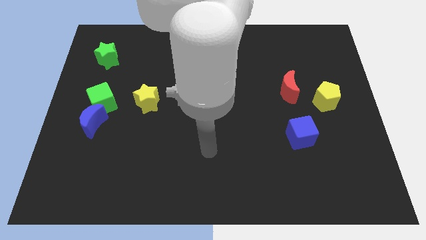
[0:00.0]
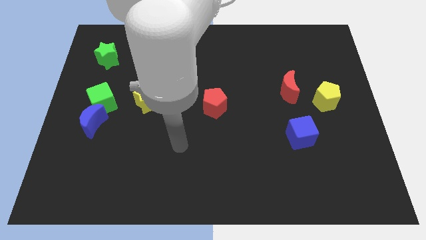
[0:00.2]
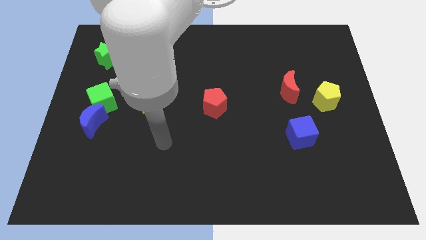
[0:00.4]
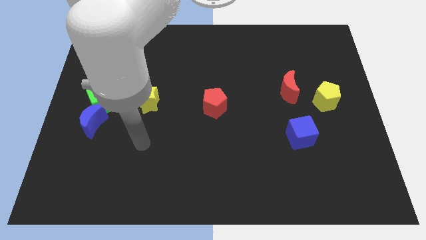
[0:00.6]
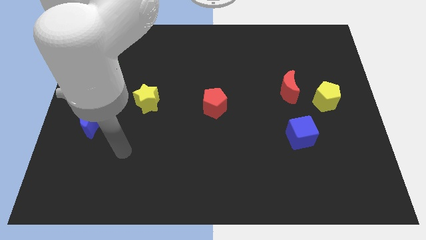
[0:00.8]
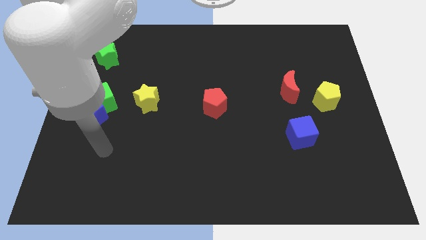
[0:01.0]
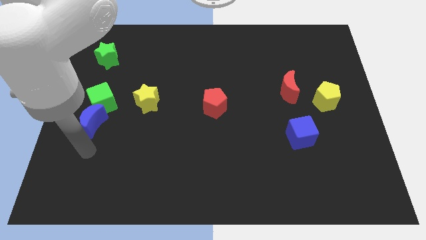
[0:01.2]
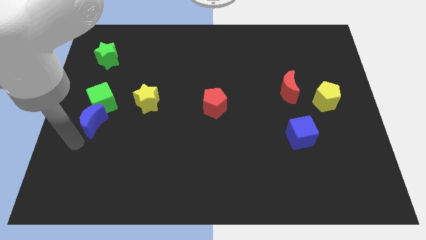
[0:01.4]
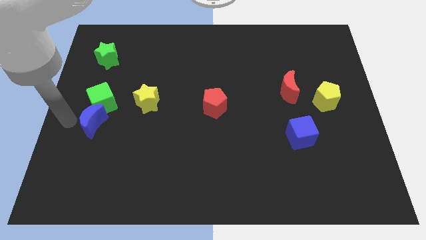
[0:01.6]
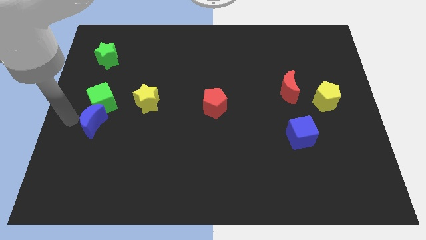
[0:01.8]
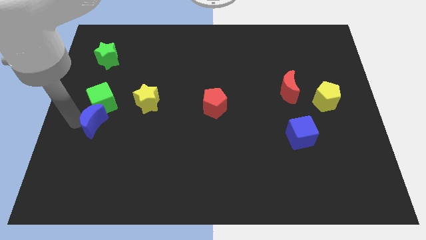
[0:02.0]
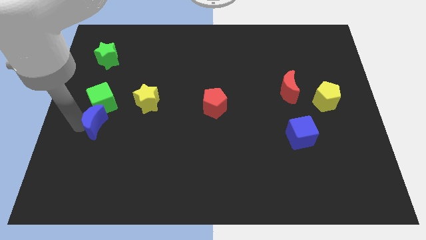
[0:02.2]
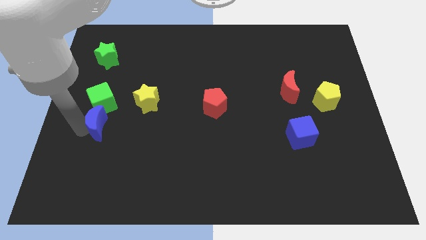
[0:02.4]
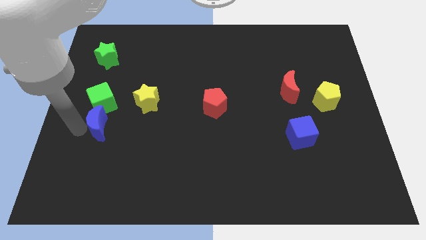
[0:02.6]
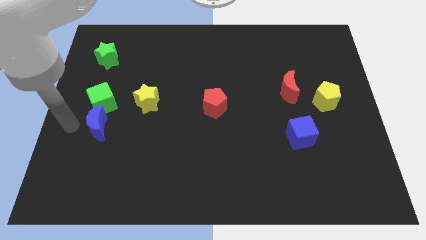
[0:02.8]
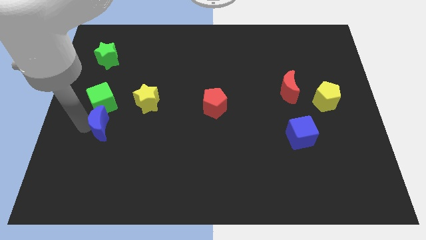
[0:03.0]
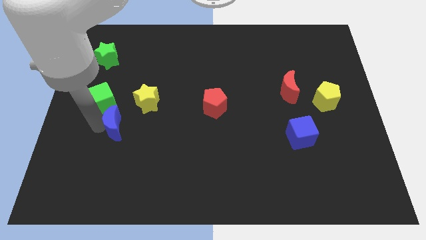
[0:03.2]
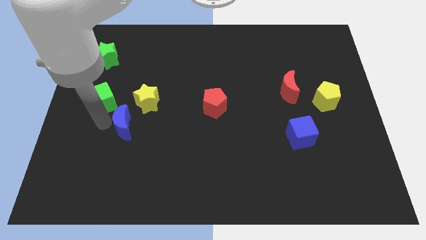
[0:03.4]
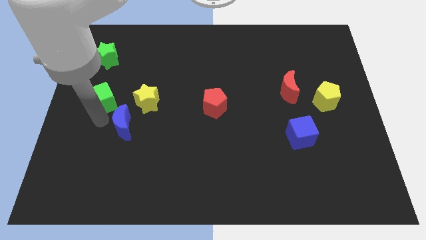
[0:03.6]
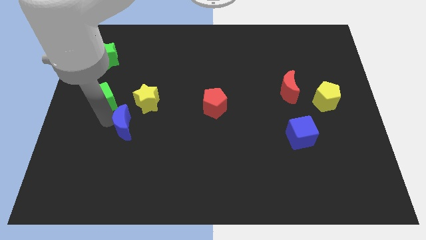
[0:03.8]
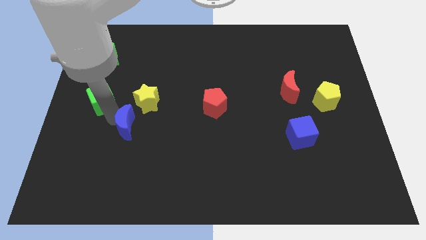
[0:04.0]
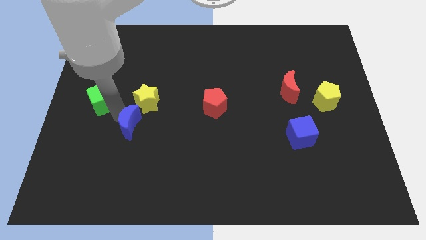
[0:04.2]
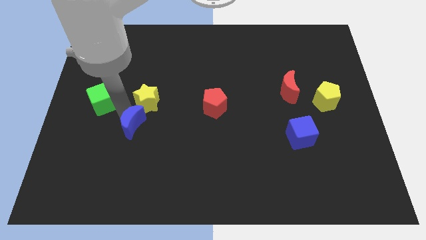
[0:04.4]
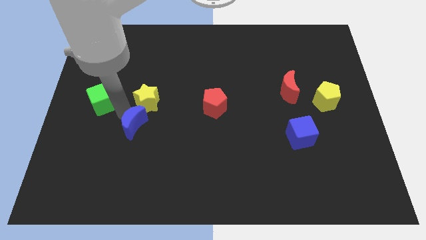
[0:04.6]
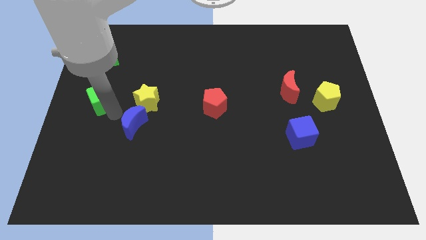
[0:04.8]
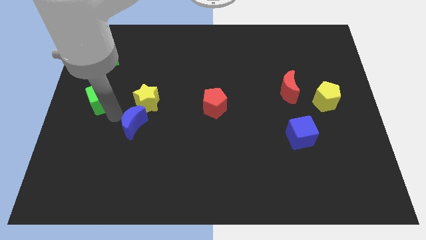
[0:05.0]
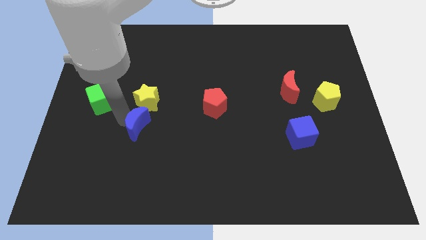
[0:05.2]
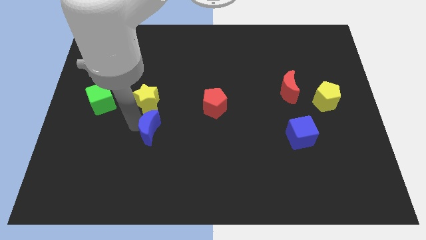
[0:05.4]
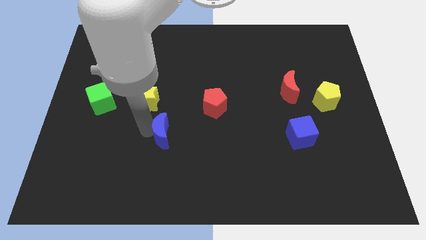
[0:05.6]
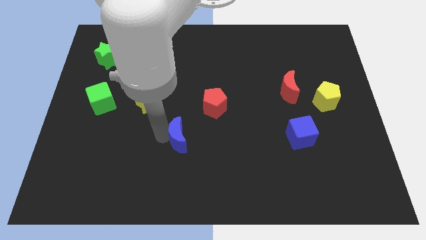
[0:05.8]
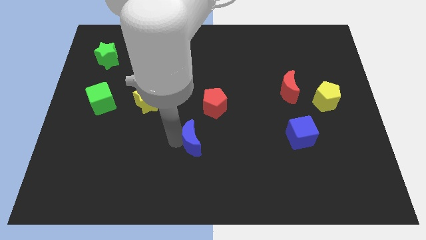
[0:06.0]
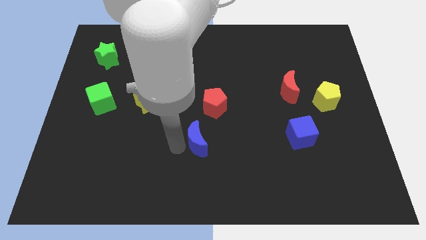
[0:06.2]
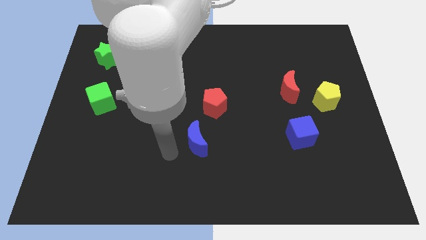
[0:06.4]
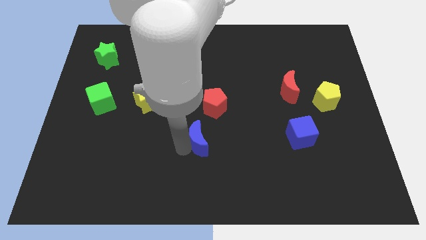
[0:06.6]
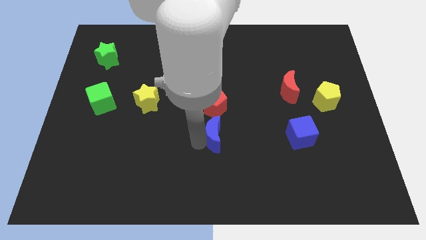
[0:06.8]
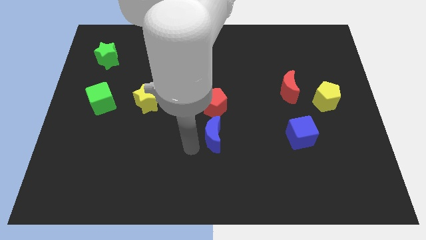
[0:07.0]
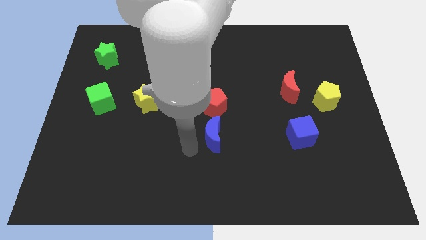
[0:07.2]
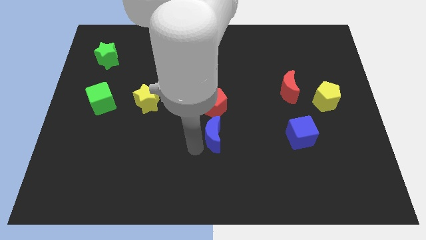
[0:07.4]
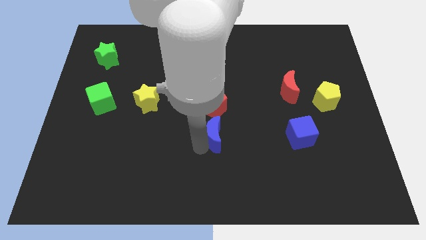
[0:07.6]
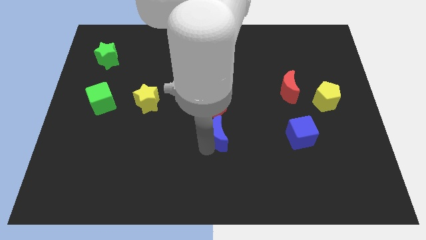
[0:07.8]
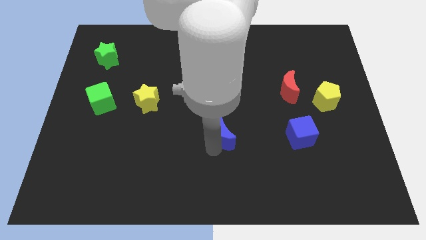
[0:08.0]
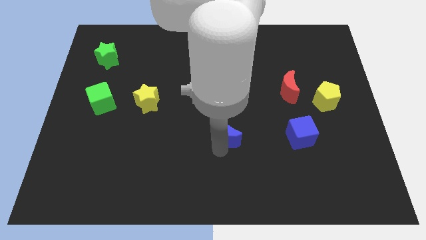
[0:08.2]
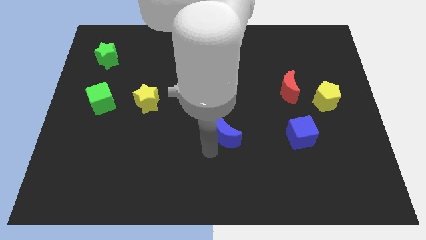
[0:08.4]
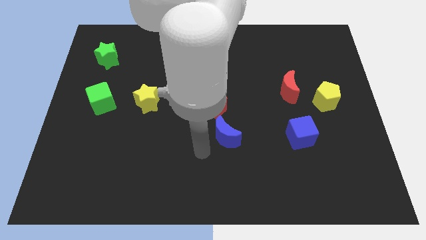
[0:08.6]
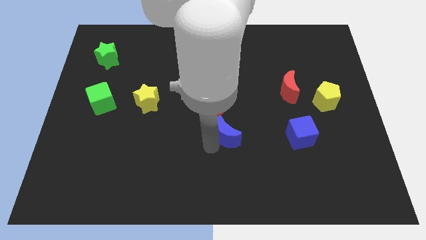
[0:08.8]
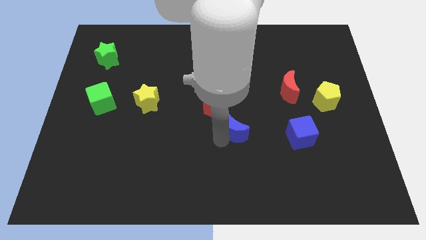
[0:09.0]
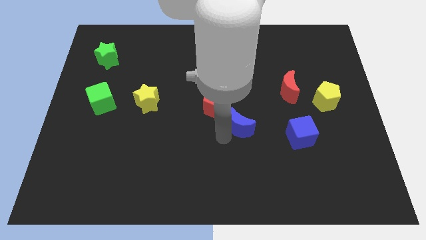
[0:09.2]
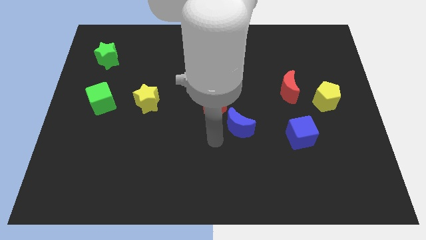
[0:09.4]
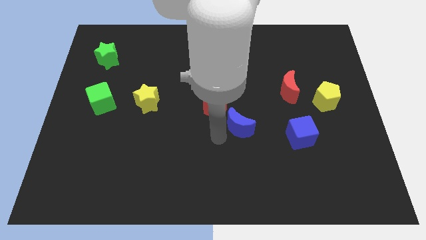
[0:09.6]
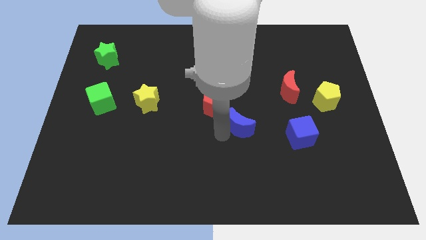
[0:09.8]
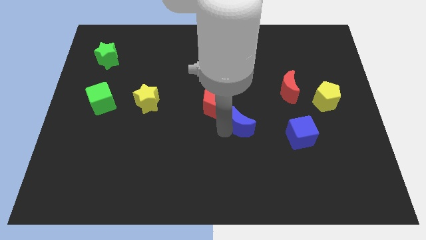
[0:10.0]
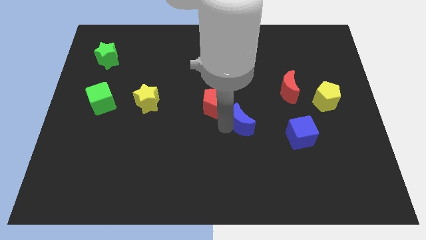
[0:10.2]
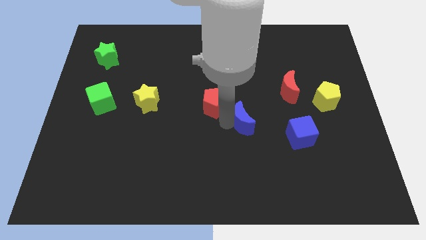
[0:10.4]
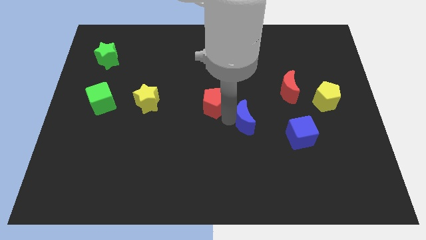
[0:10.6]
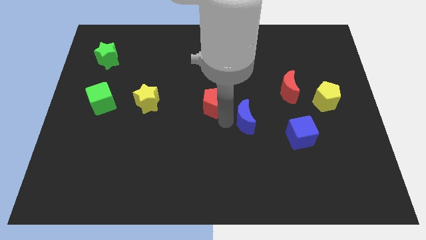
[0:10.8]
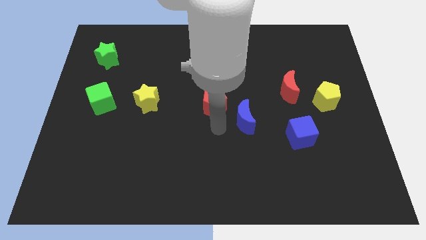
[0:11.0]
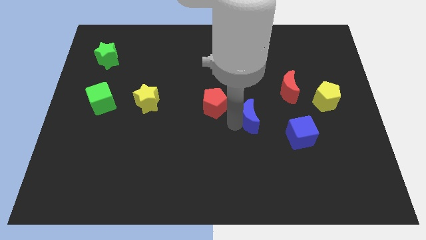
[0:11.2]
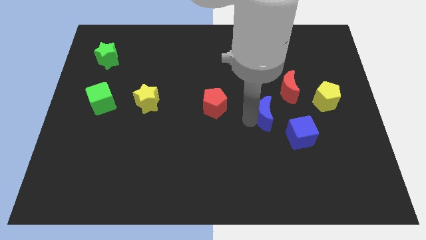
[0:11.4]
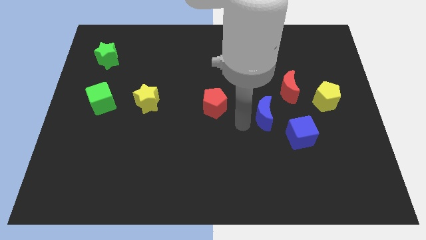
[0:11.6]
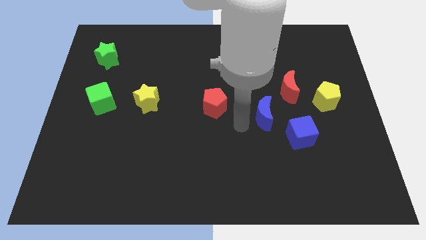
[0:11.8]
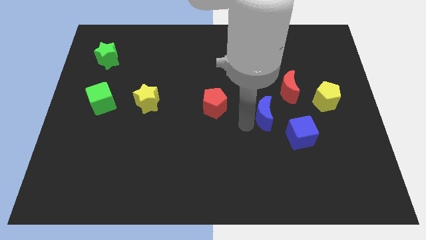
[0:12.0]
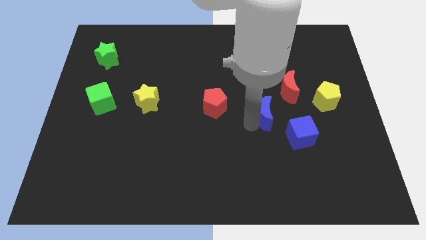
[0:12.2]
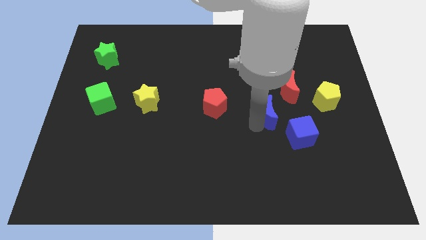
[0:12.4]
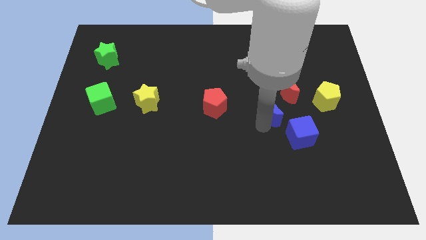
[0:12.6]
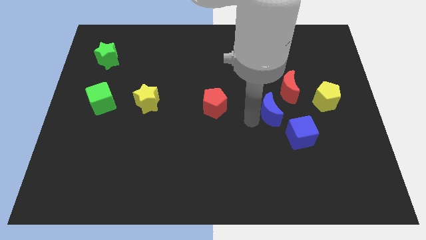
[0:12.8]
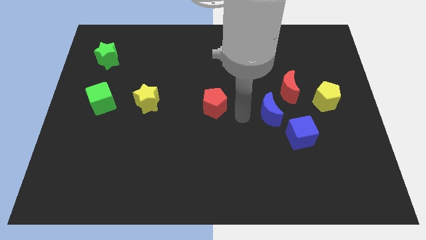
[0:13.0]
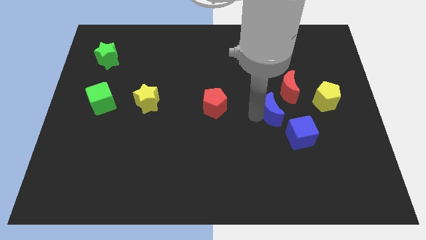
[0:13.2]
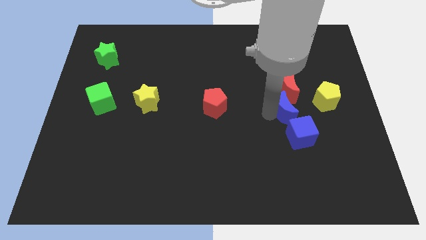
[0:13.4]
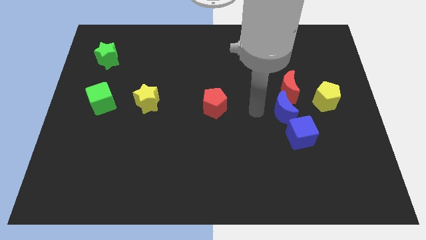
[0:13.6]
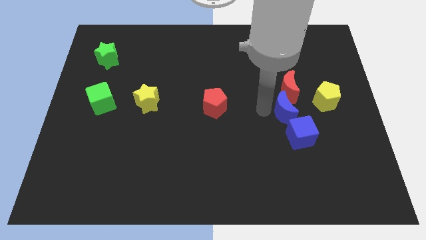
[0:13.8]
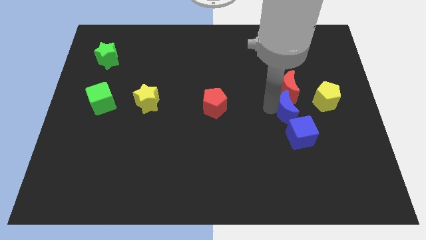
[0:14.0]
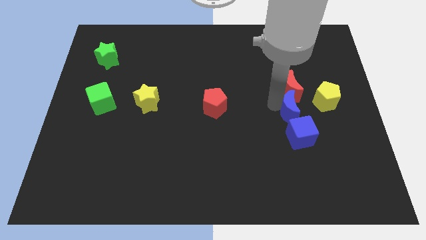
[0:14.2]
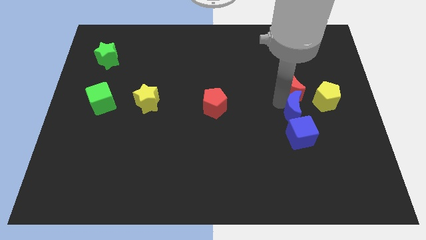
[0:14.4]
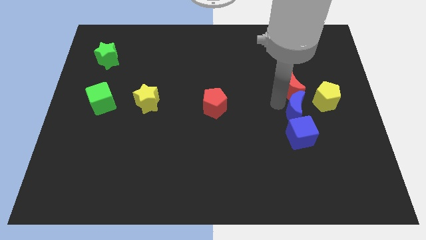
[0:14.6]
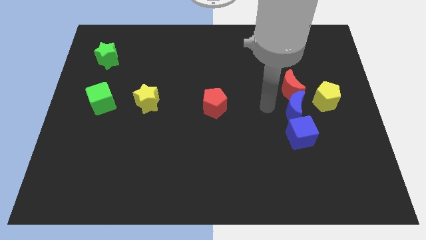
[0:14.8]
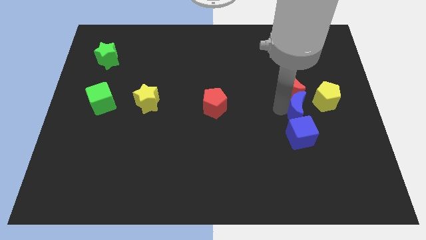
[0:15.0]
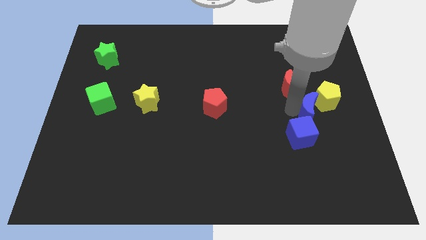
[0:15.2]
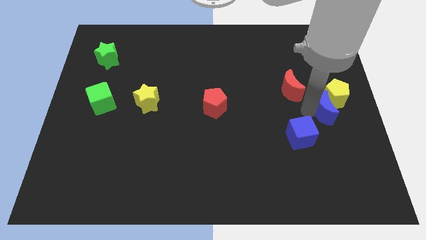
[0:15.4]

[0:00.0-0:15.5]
move the blue moon to the right side
